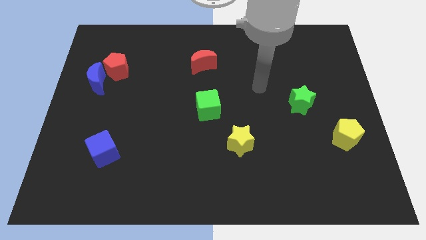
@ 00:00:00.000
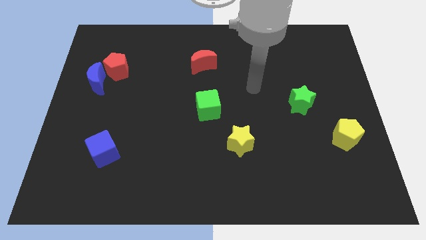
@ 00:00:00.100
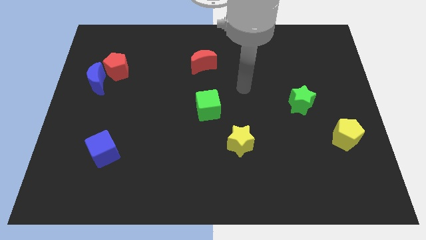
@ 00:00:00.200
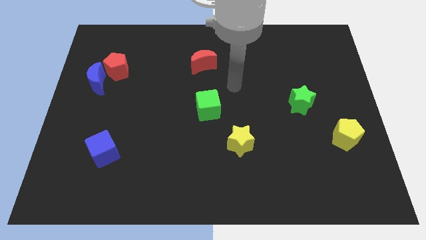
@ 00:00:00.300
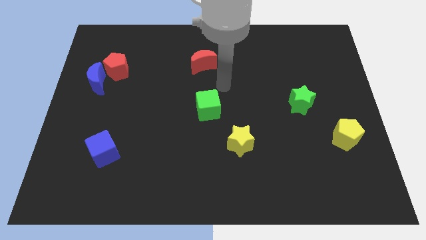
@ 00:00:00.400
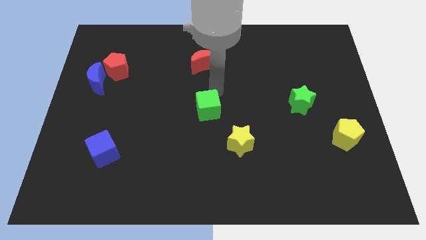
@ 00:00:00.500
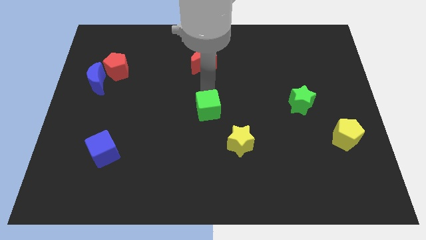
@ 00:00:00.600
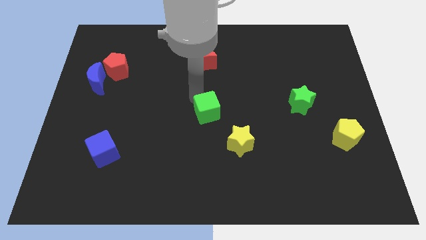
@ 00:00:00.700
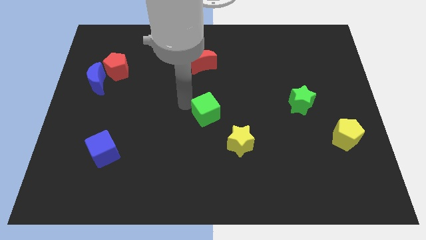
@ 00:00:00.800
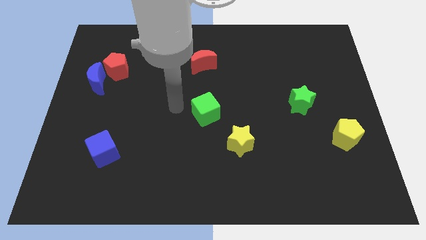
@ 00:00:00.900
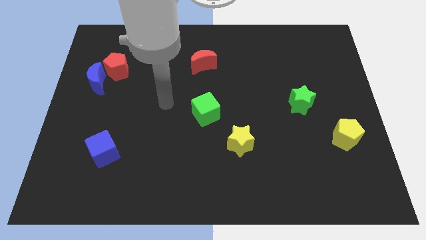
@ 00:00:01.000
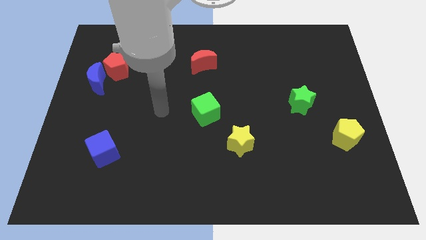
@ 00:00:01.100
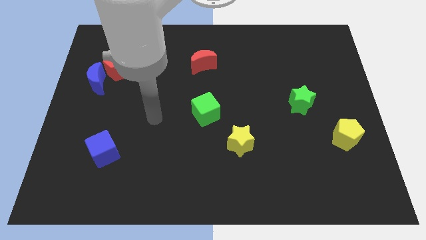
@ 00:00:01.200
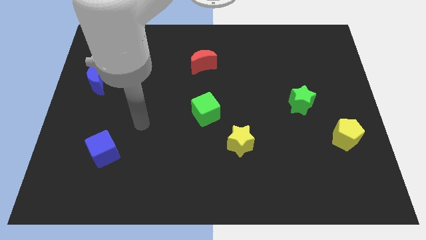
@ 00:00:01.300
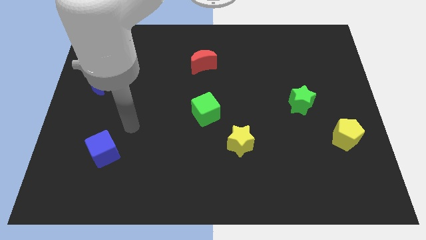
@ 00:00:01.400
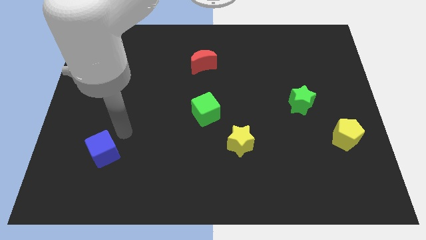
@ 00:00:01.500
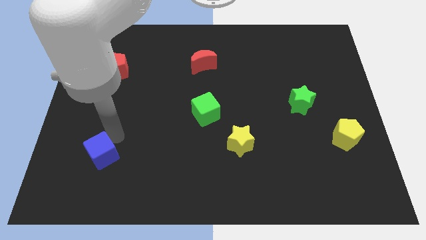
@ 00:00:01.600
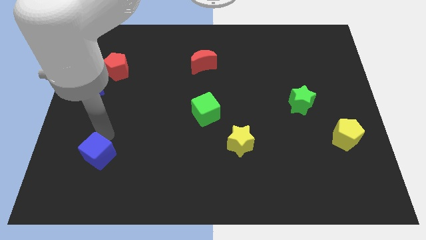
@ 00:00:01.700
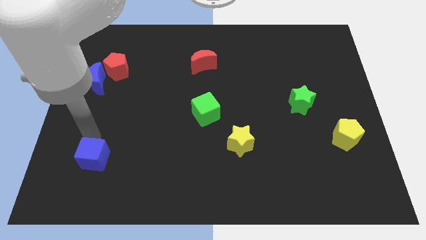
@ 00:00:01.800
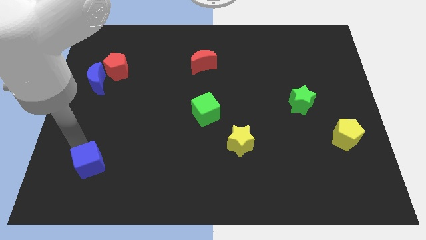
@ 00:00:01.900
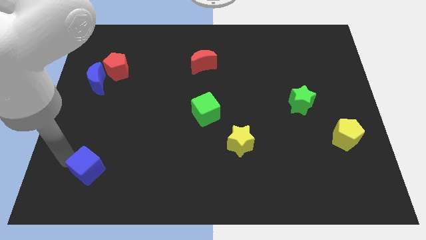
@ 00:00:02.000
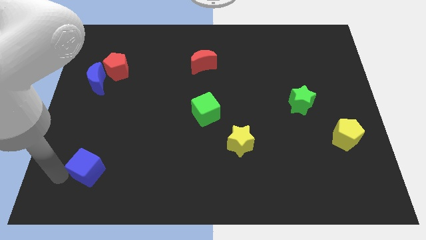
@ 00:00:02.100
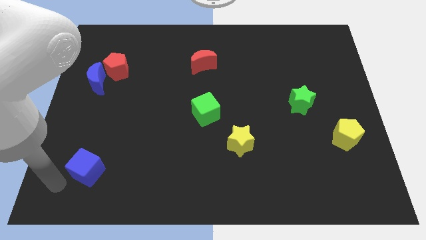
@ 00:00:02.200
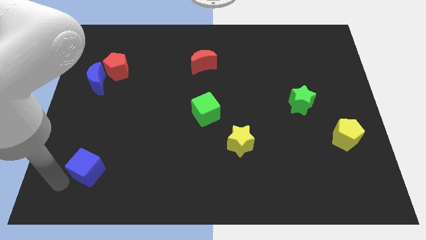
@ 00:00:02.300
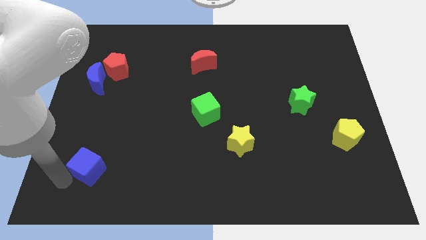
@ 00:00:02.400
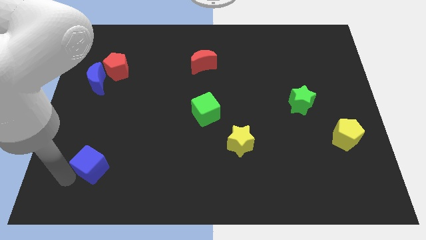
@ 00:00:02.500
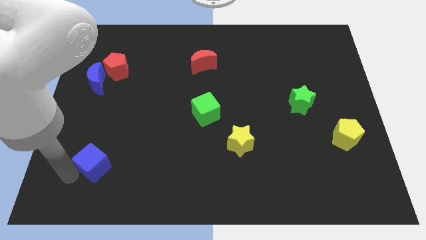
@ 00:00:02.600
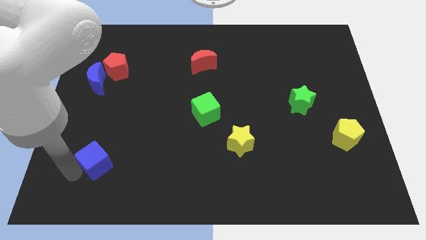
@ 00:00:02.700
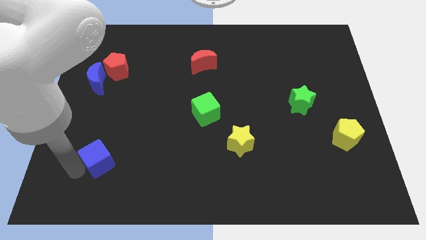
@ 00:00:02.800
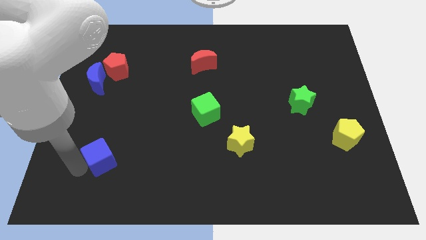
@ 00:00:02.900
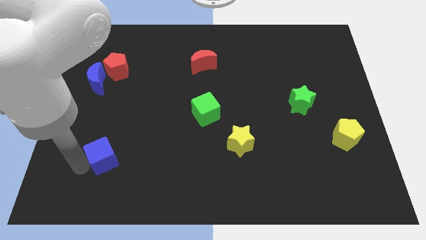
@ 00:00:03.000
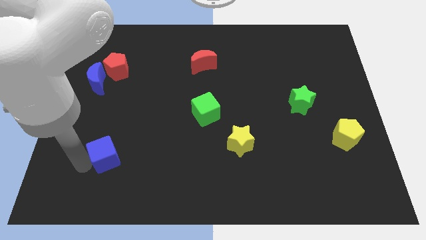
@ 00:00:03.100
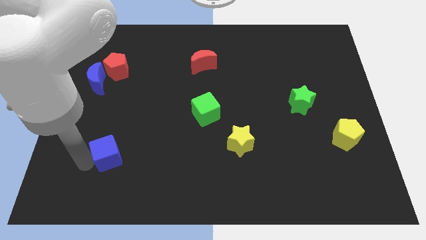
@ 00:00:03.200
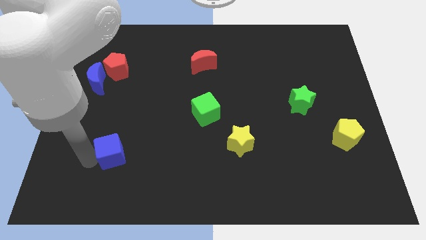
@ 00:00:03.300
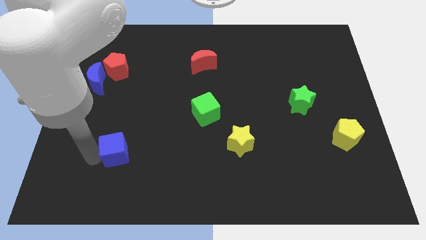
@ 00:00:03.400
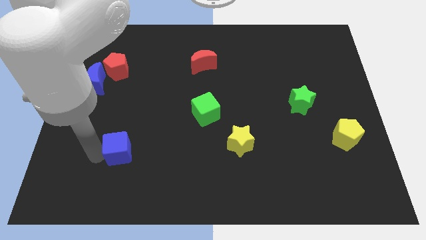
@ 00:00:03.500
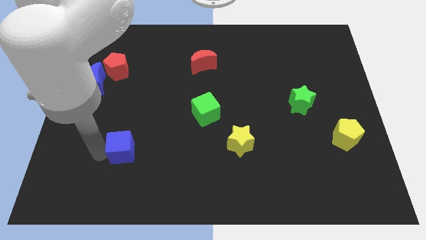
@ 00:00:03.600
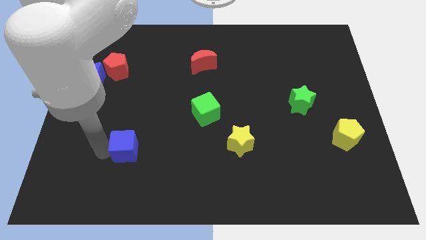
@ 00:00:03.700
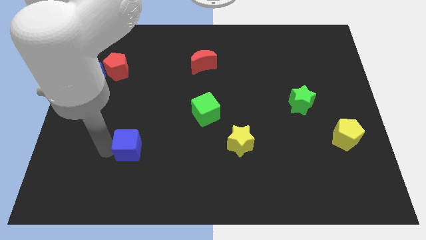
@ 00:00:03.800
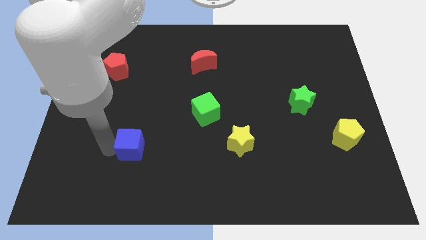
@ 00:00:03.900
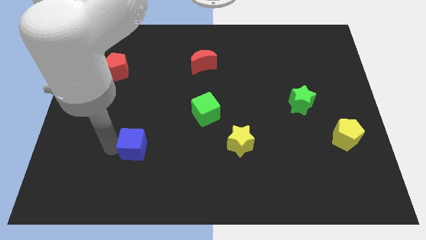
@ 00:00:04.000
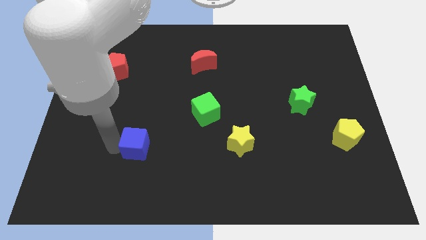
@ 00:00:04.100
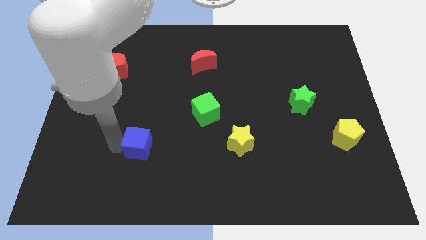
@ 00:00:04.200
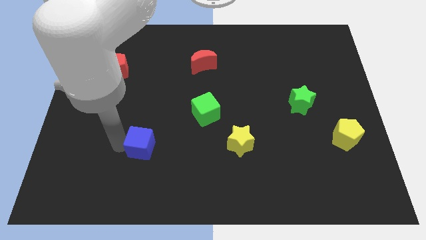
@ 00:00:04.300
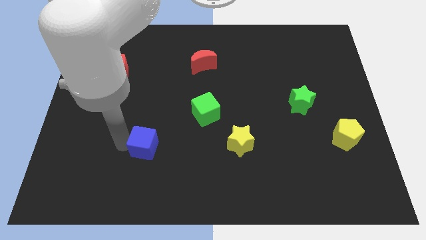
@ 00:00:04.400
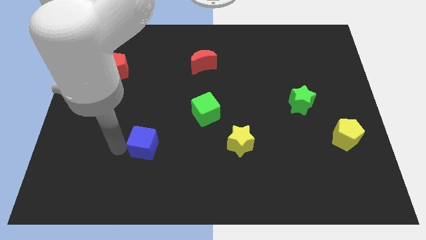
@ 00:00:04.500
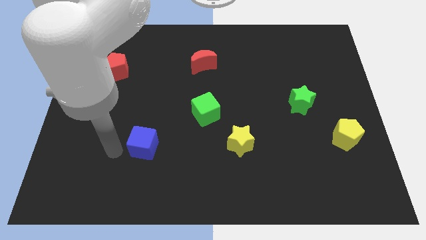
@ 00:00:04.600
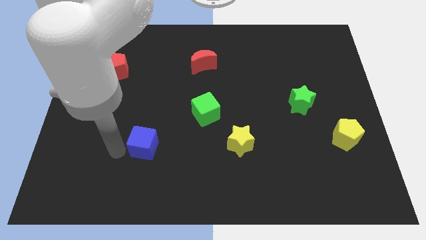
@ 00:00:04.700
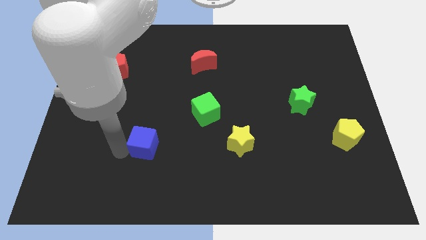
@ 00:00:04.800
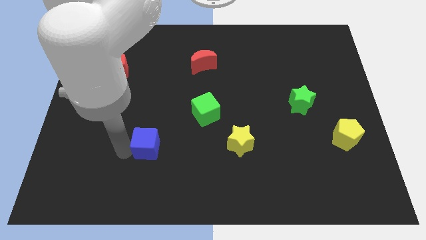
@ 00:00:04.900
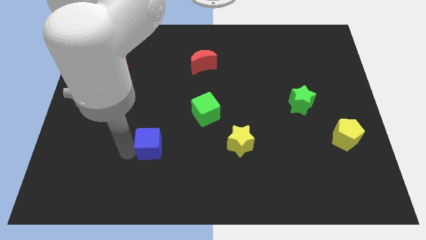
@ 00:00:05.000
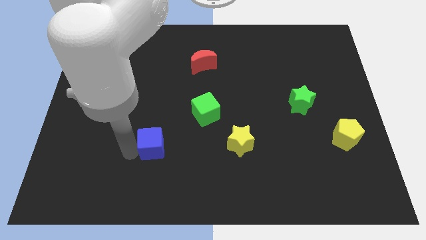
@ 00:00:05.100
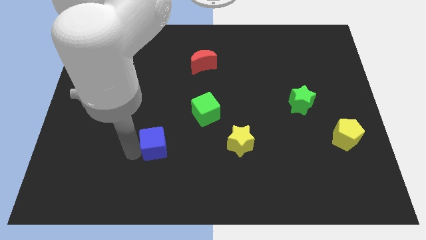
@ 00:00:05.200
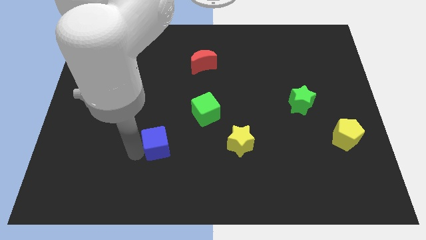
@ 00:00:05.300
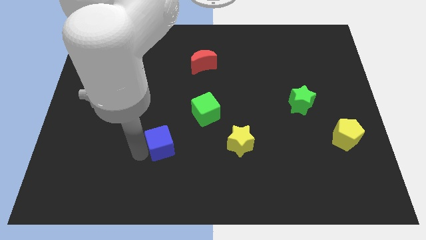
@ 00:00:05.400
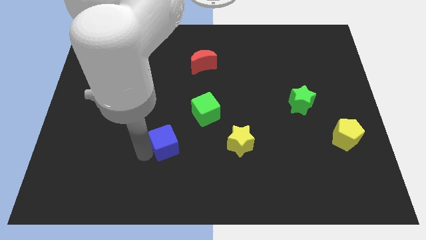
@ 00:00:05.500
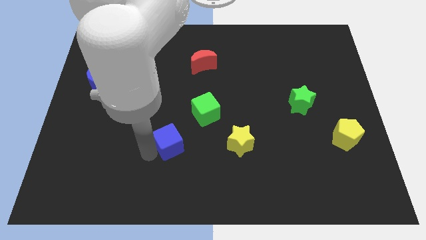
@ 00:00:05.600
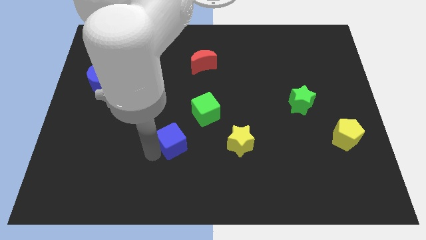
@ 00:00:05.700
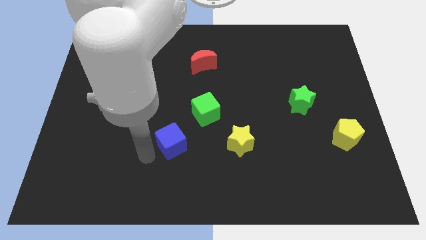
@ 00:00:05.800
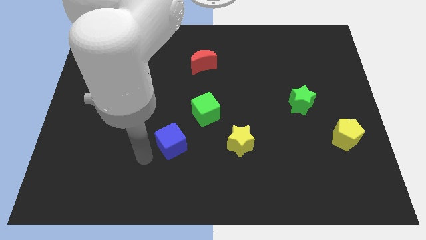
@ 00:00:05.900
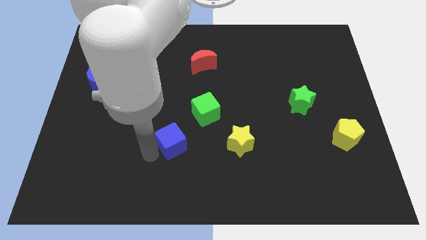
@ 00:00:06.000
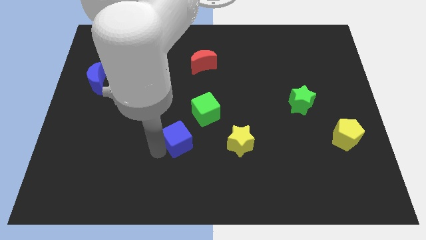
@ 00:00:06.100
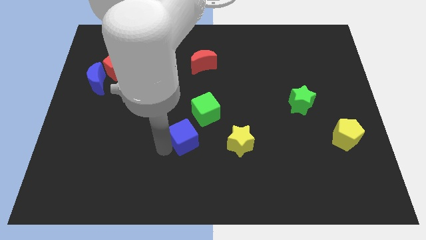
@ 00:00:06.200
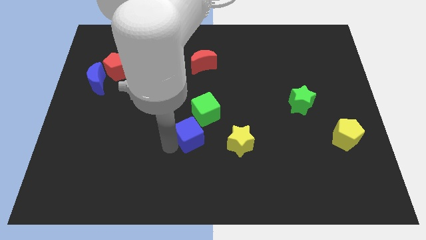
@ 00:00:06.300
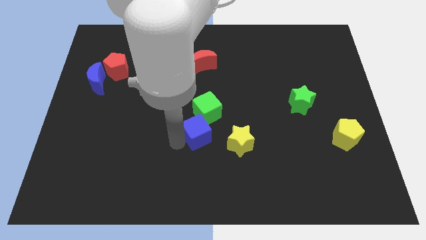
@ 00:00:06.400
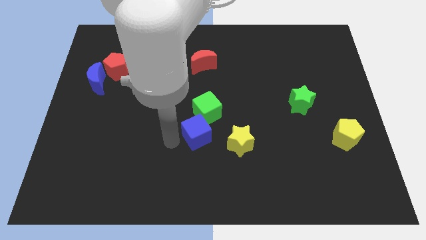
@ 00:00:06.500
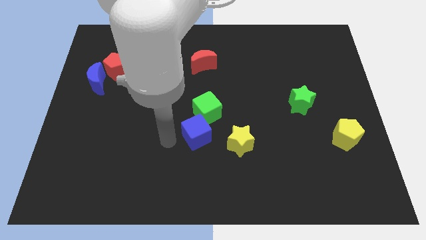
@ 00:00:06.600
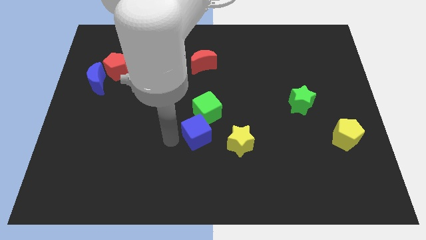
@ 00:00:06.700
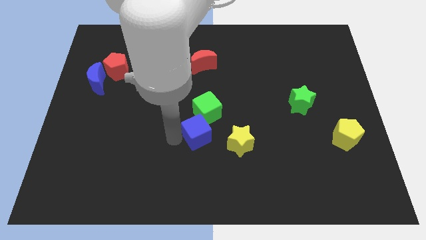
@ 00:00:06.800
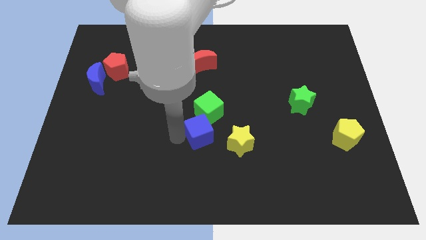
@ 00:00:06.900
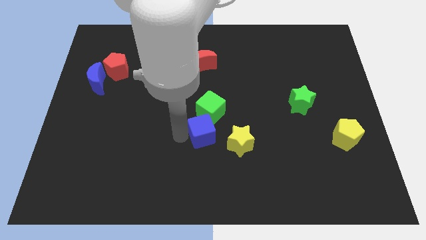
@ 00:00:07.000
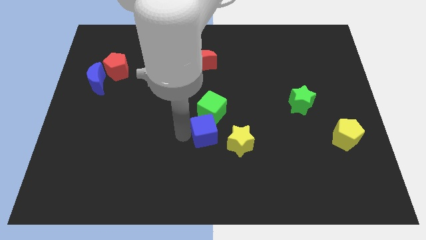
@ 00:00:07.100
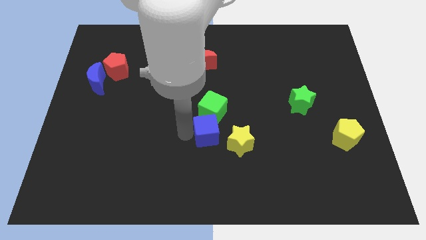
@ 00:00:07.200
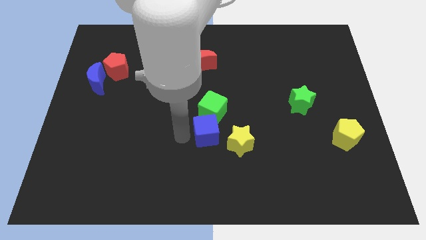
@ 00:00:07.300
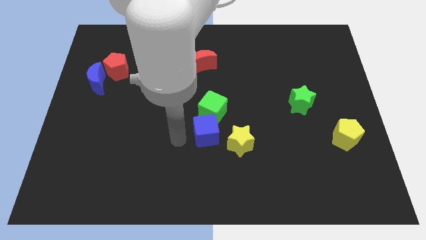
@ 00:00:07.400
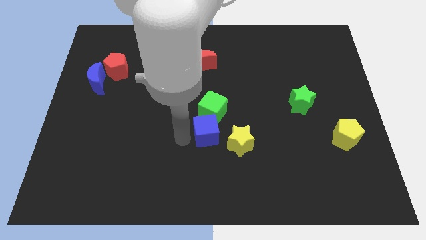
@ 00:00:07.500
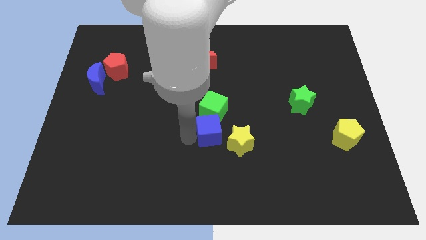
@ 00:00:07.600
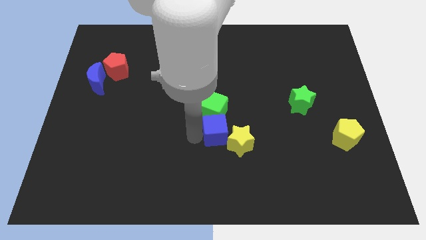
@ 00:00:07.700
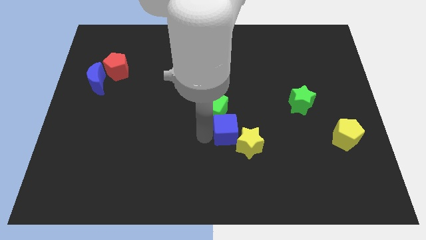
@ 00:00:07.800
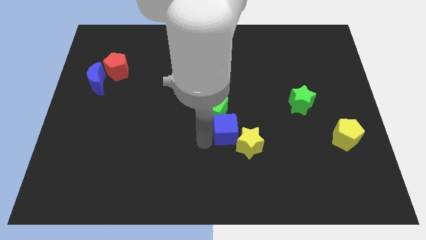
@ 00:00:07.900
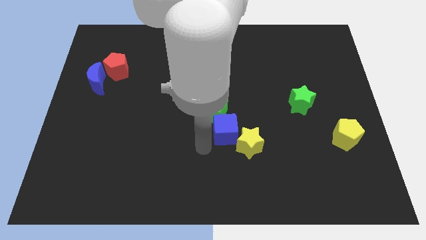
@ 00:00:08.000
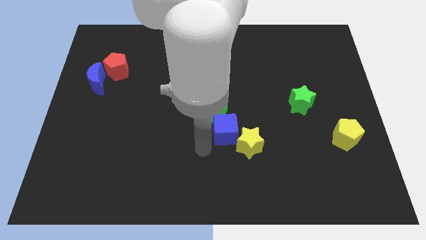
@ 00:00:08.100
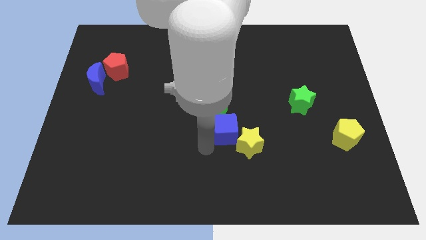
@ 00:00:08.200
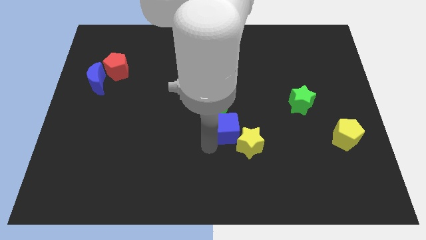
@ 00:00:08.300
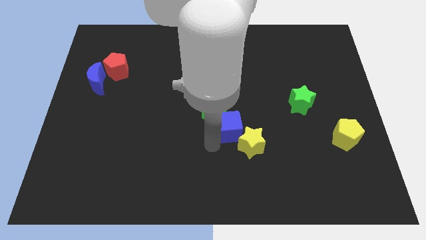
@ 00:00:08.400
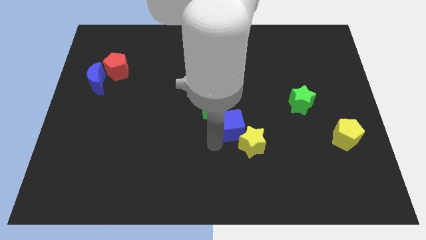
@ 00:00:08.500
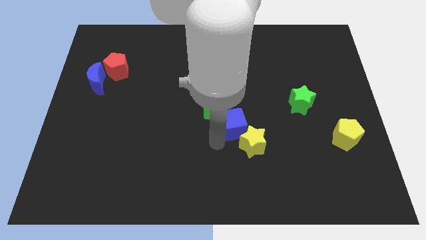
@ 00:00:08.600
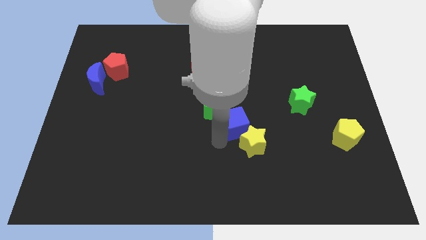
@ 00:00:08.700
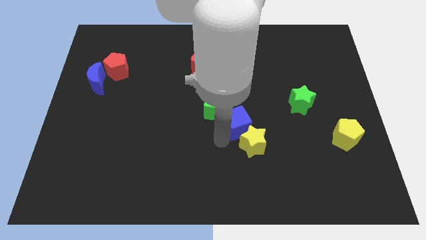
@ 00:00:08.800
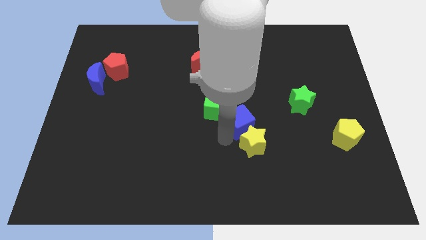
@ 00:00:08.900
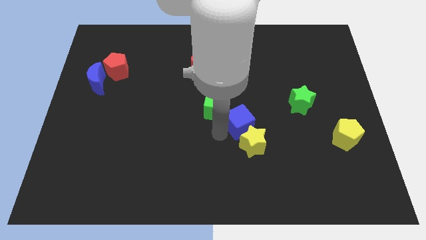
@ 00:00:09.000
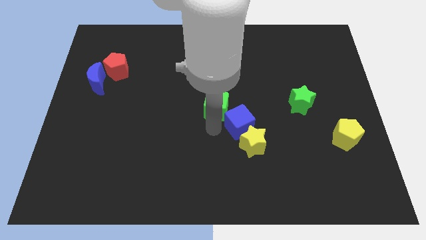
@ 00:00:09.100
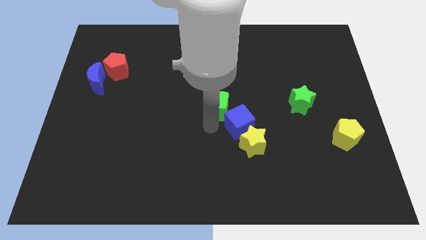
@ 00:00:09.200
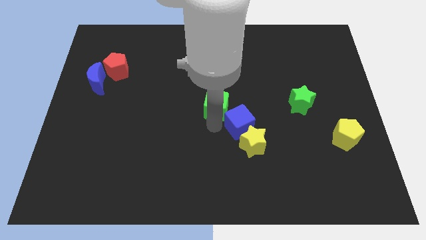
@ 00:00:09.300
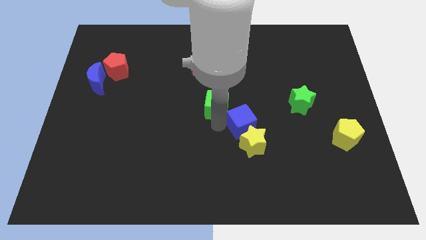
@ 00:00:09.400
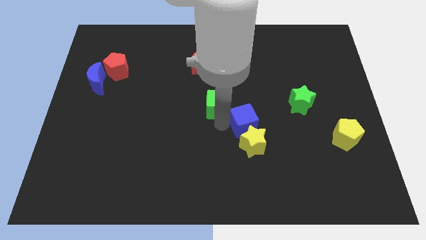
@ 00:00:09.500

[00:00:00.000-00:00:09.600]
push the blue cube to the top right of the yellow star
